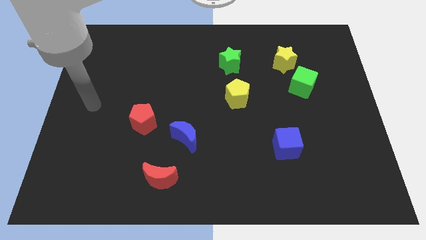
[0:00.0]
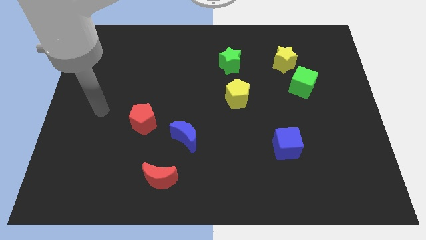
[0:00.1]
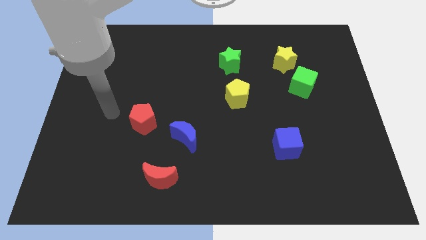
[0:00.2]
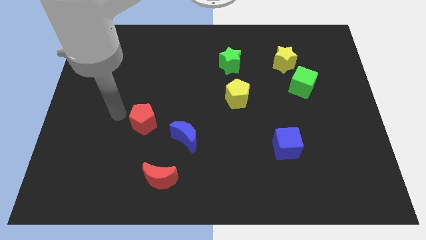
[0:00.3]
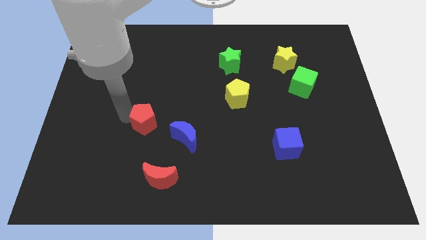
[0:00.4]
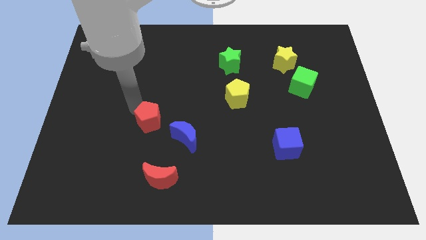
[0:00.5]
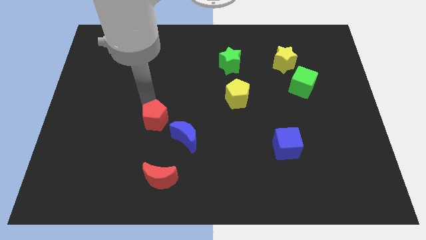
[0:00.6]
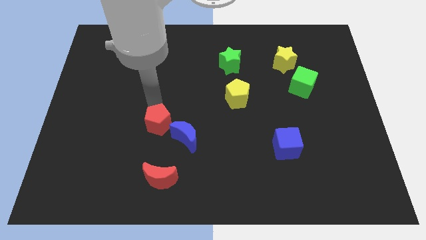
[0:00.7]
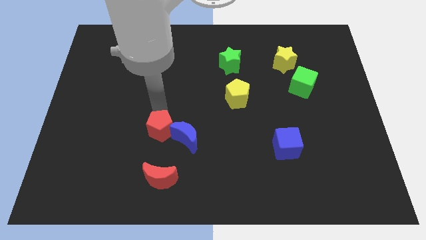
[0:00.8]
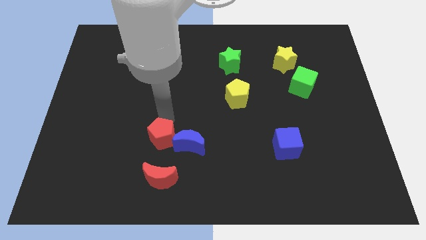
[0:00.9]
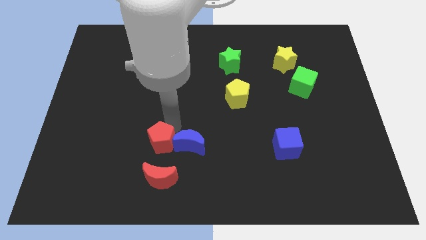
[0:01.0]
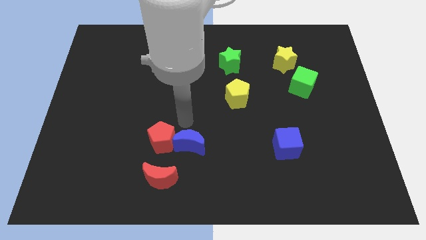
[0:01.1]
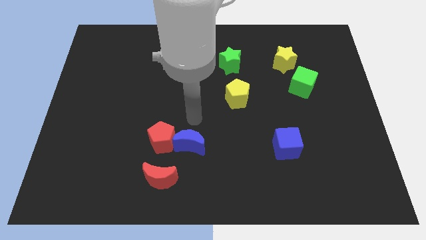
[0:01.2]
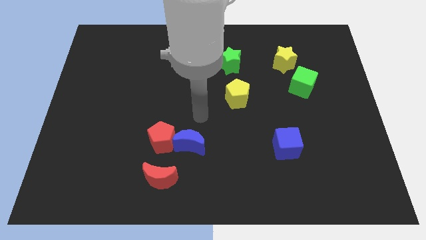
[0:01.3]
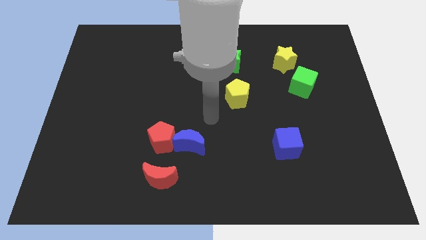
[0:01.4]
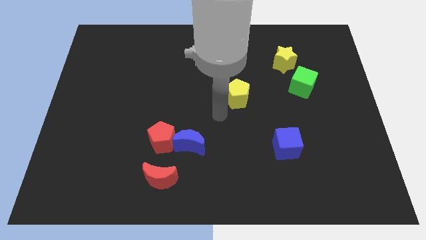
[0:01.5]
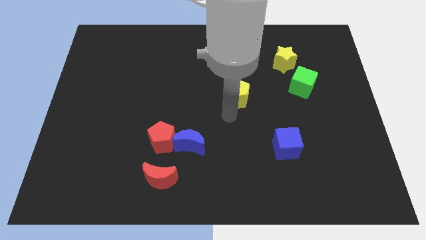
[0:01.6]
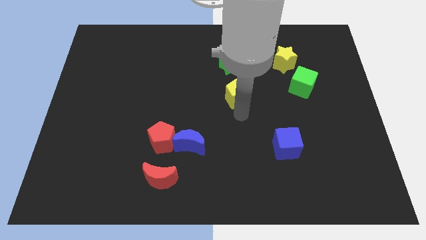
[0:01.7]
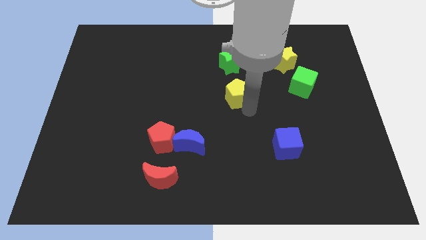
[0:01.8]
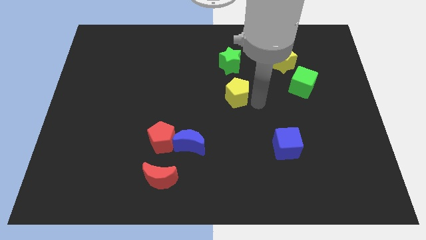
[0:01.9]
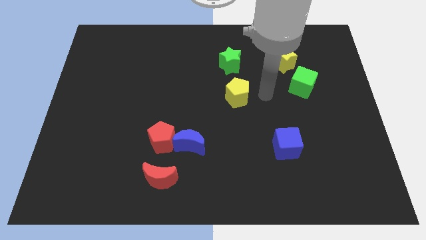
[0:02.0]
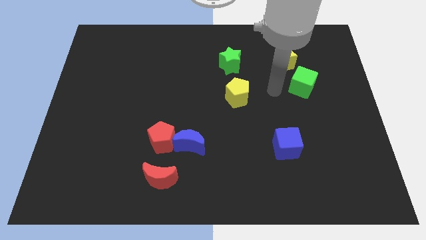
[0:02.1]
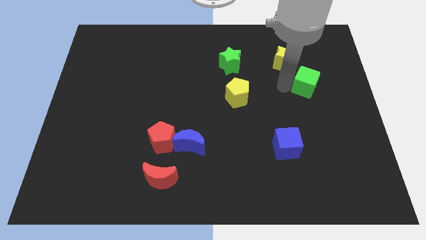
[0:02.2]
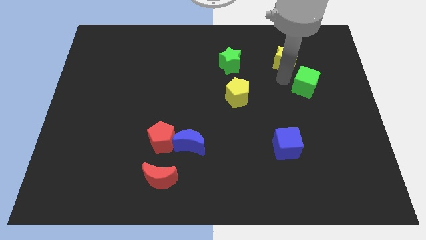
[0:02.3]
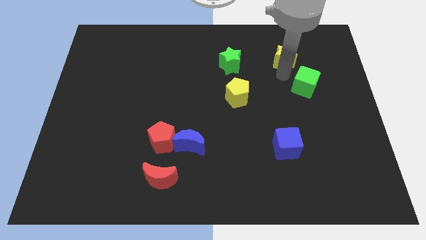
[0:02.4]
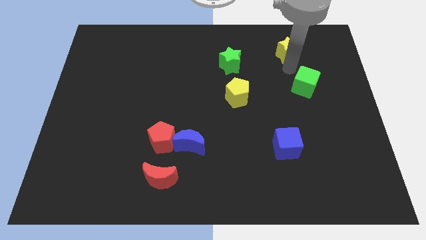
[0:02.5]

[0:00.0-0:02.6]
separate the green cube from the yellow star

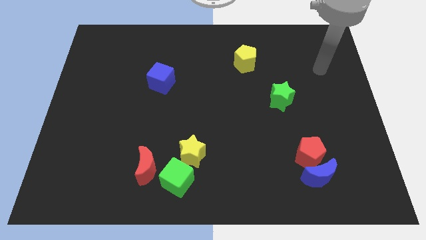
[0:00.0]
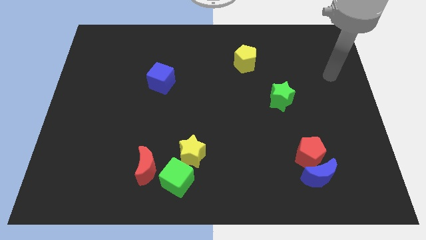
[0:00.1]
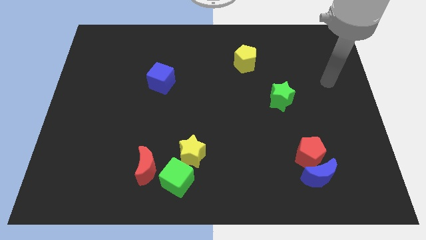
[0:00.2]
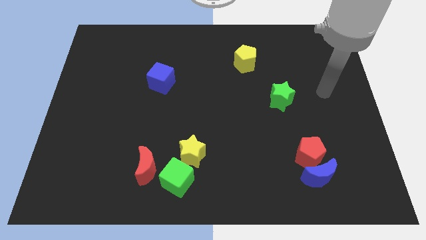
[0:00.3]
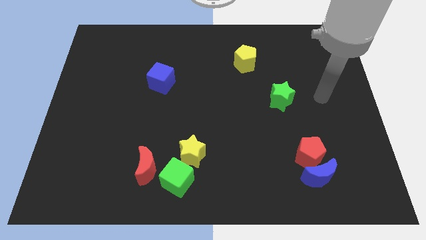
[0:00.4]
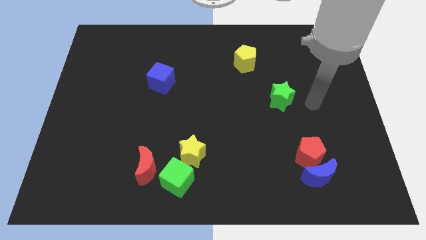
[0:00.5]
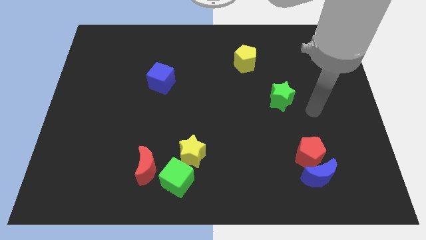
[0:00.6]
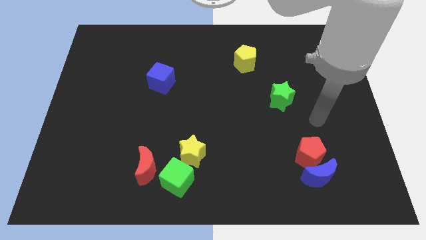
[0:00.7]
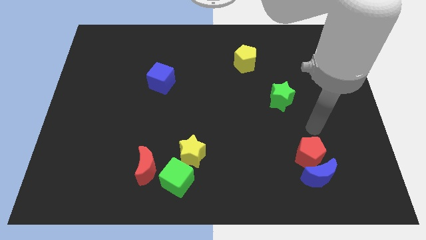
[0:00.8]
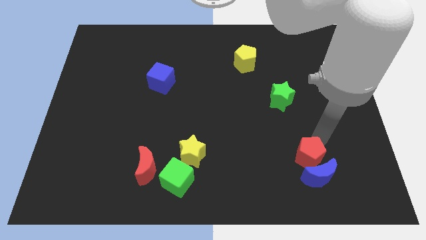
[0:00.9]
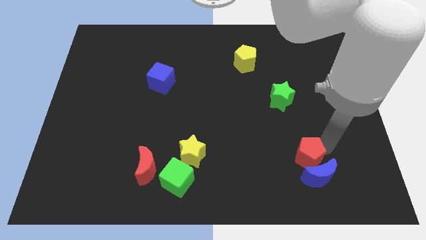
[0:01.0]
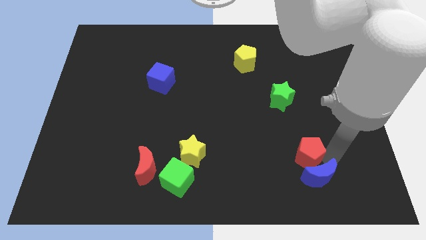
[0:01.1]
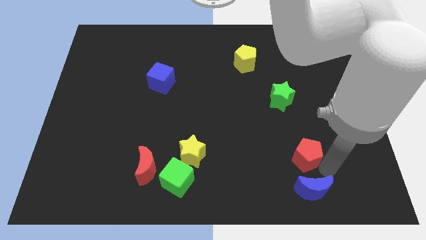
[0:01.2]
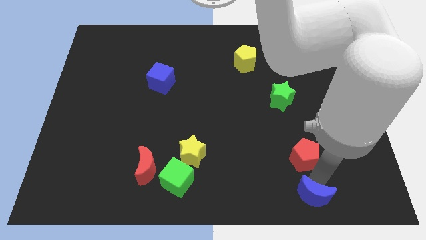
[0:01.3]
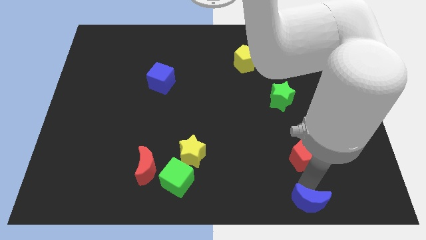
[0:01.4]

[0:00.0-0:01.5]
separate the red pentagon from the blue moon

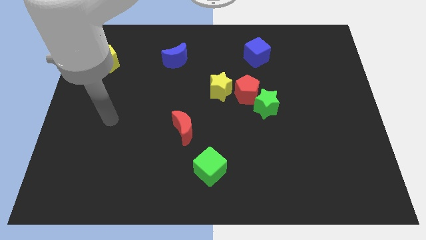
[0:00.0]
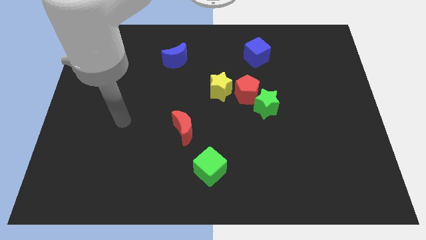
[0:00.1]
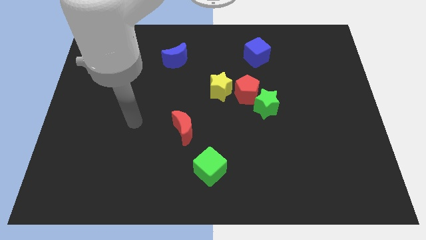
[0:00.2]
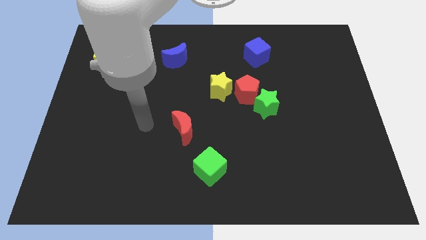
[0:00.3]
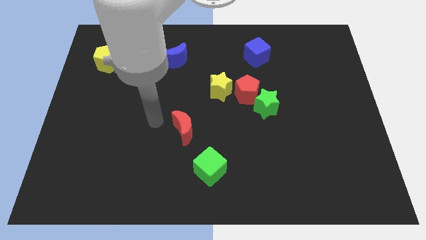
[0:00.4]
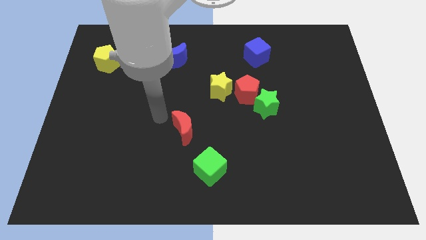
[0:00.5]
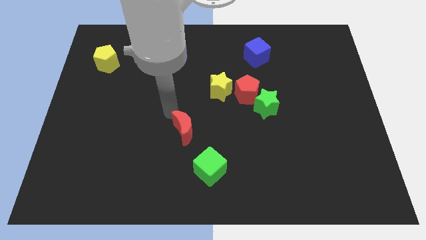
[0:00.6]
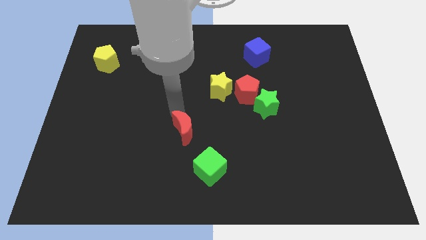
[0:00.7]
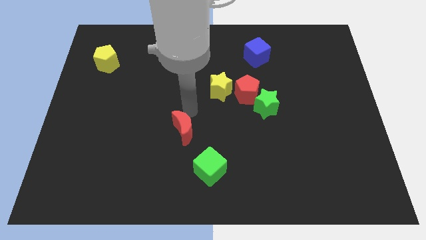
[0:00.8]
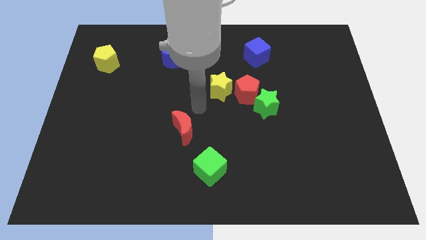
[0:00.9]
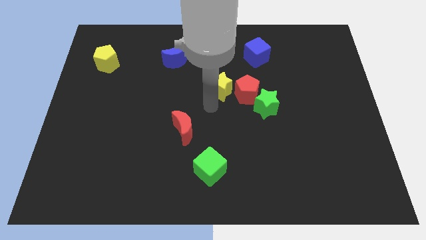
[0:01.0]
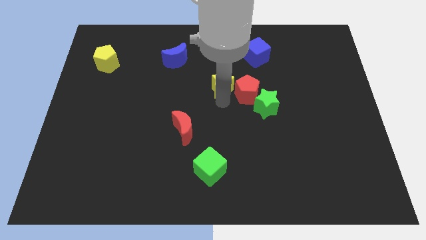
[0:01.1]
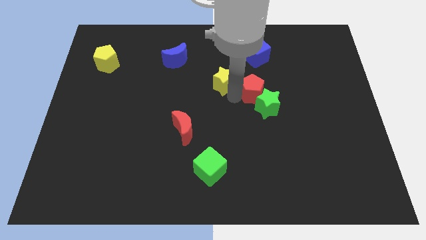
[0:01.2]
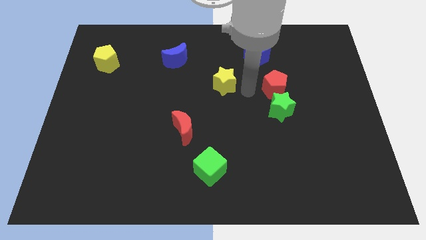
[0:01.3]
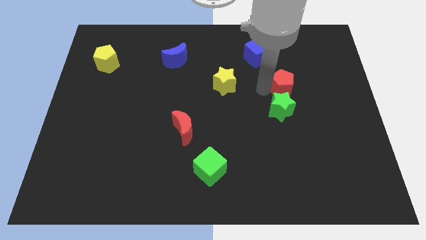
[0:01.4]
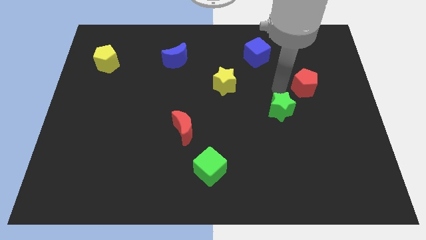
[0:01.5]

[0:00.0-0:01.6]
pull the green star apart from the red pentagon

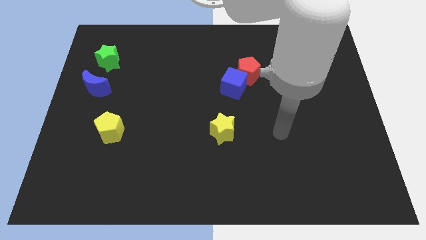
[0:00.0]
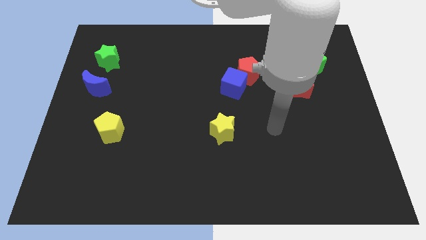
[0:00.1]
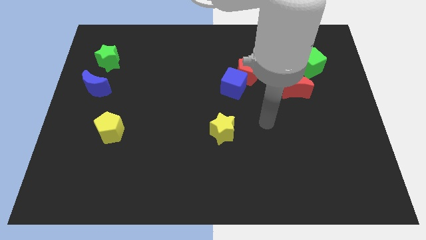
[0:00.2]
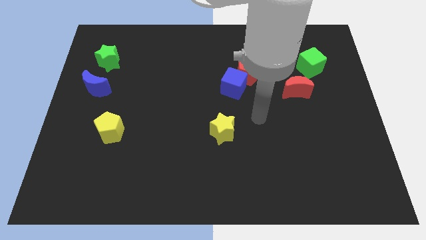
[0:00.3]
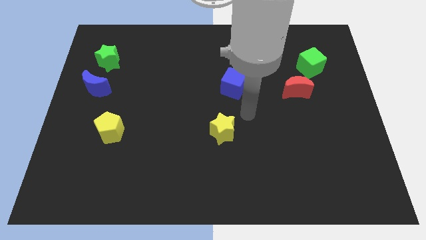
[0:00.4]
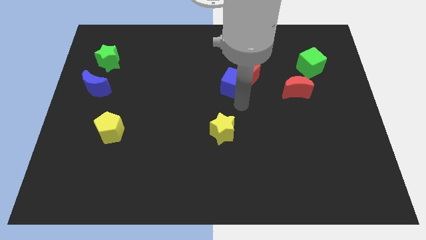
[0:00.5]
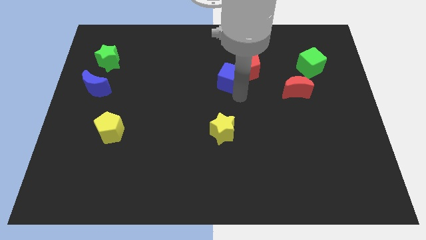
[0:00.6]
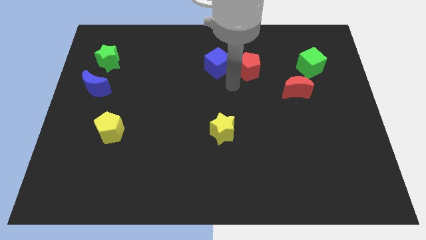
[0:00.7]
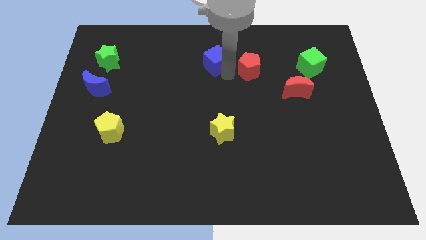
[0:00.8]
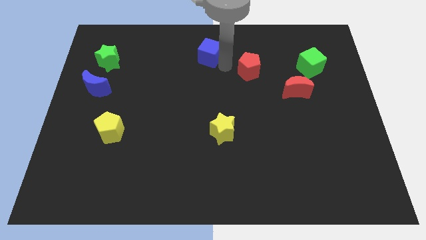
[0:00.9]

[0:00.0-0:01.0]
pull the red pentagon apart from the blue cube

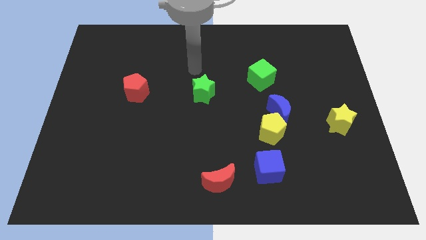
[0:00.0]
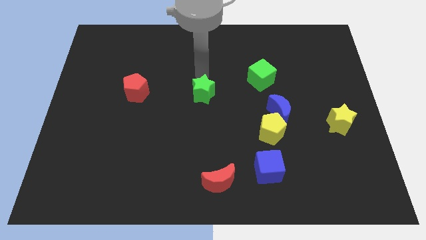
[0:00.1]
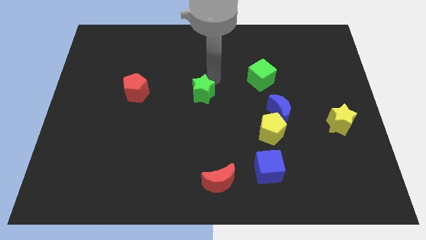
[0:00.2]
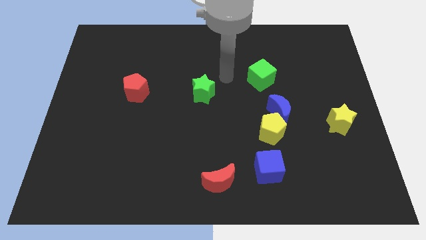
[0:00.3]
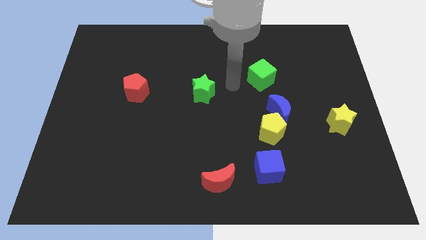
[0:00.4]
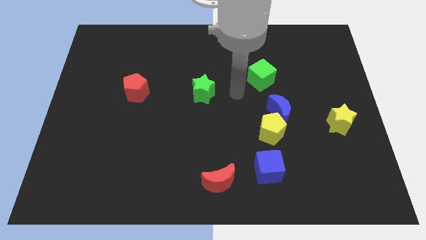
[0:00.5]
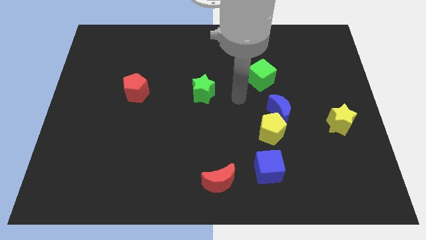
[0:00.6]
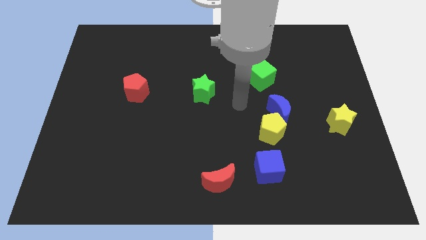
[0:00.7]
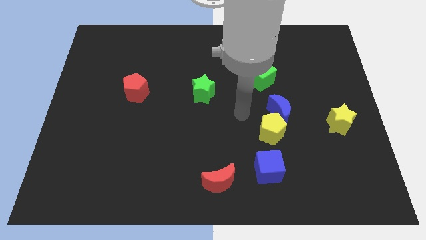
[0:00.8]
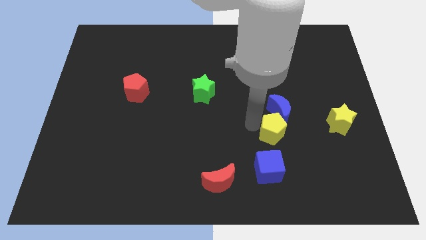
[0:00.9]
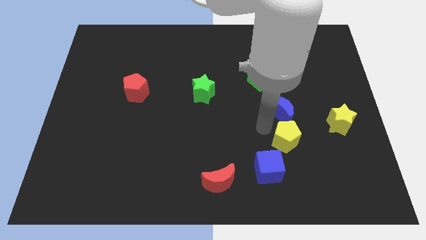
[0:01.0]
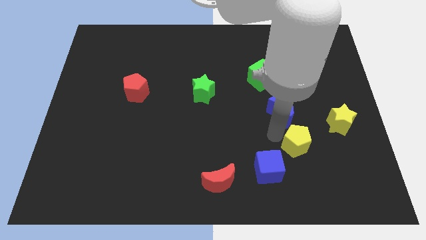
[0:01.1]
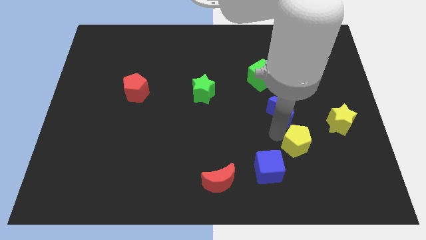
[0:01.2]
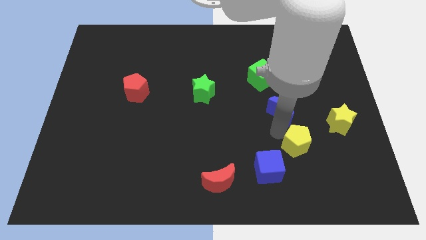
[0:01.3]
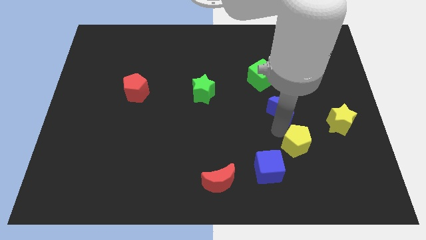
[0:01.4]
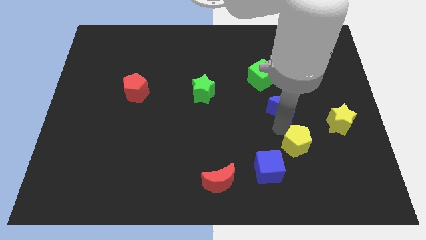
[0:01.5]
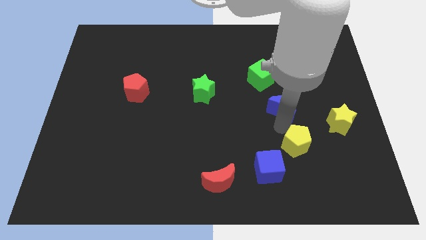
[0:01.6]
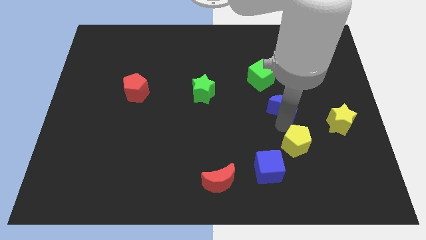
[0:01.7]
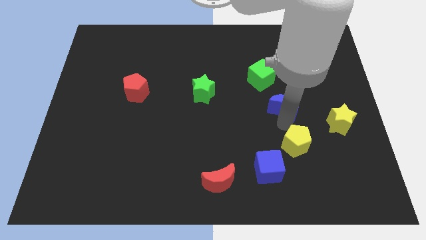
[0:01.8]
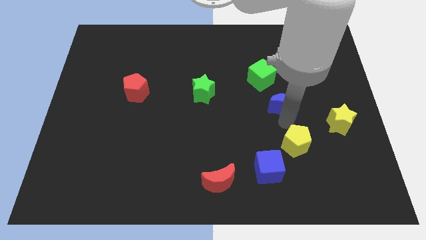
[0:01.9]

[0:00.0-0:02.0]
separate the blue moon from the yellow pentagon

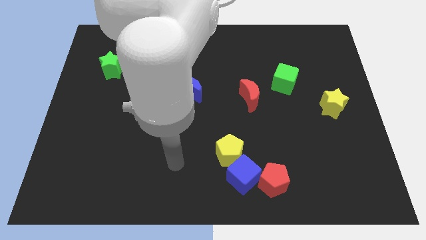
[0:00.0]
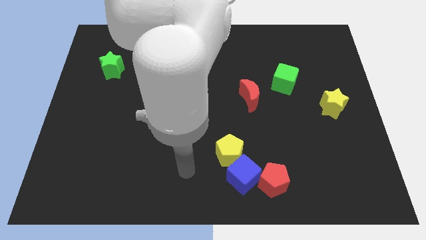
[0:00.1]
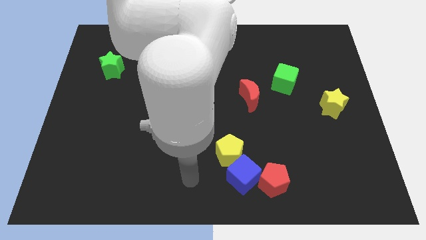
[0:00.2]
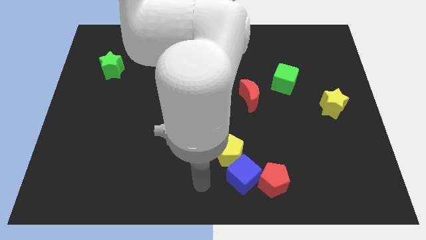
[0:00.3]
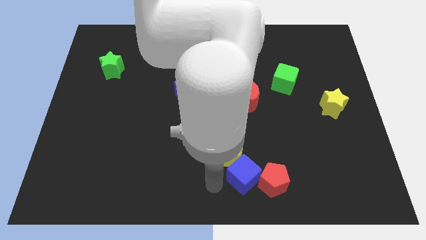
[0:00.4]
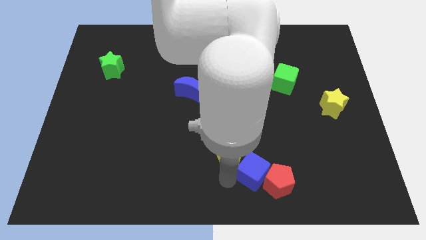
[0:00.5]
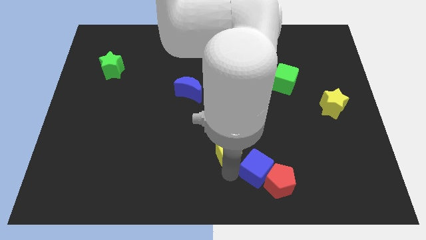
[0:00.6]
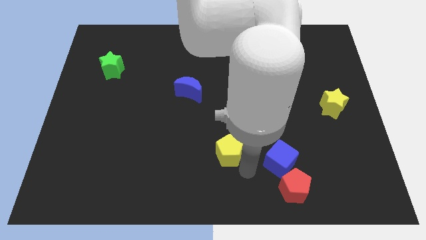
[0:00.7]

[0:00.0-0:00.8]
separate the yellow pentagon from the blue cube
